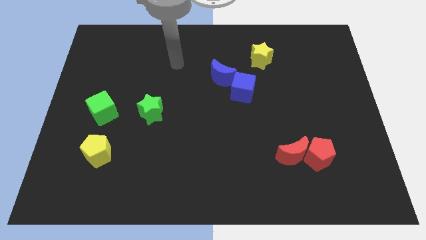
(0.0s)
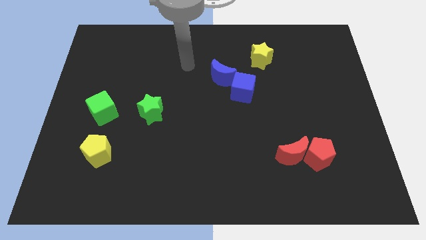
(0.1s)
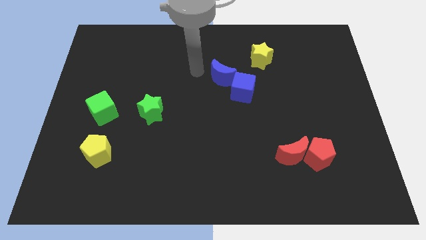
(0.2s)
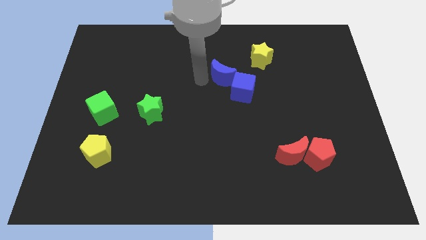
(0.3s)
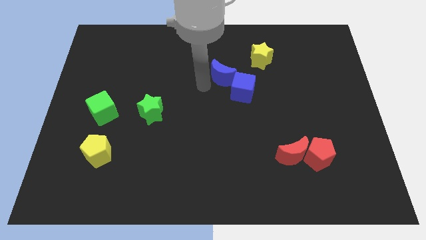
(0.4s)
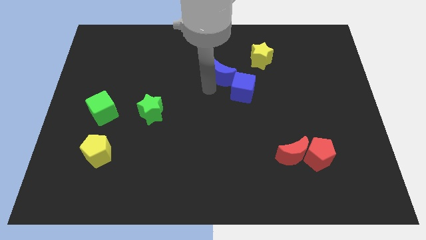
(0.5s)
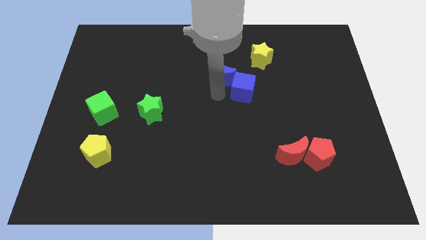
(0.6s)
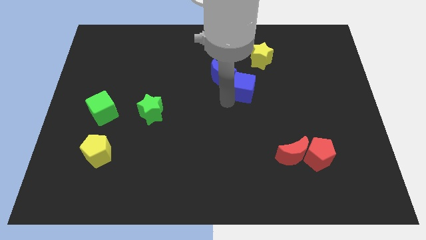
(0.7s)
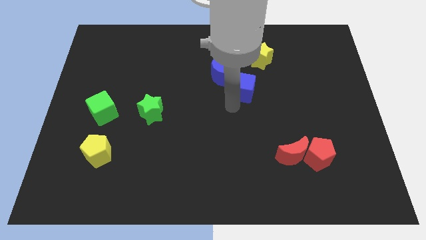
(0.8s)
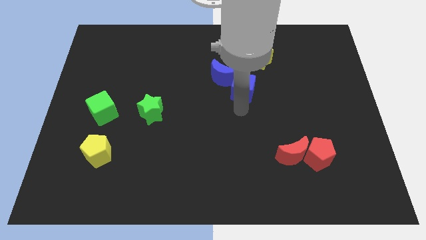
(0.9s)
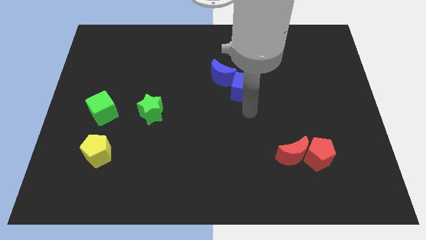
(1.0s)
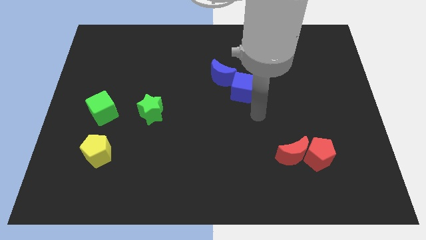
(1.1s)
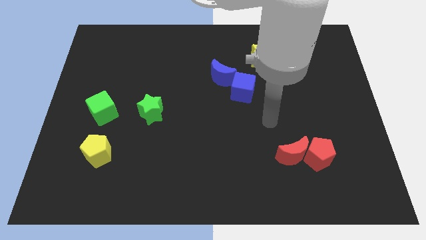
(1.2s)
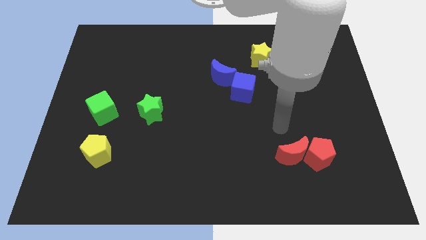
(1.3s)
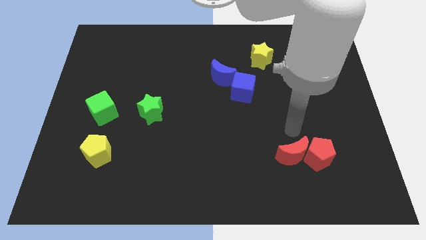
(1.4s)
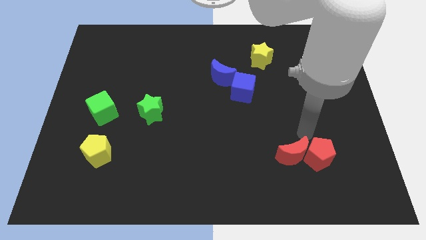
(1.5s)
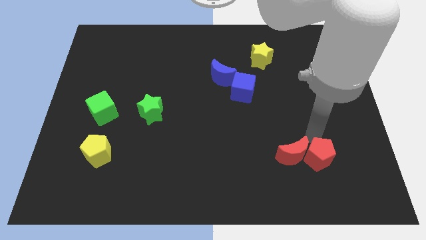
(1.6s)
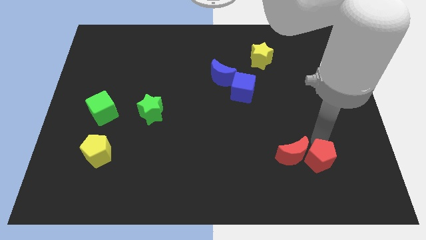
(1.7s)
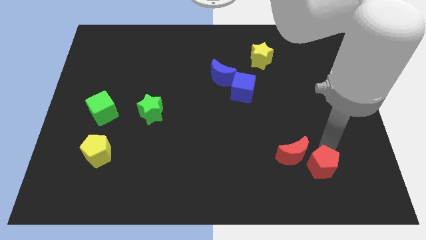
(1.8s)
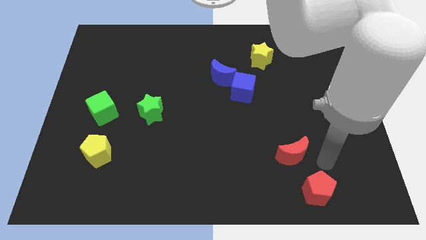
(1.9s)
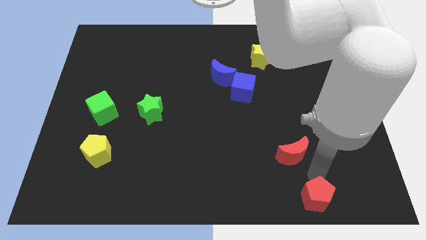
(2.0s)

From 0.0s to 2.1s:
move the red moon away from the red pentagon

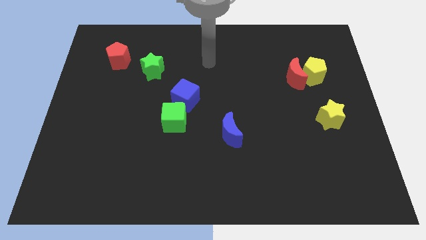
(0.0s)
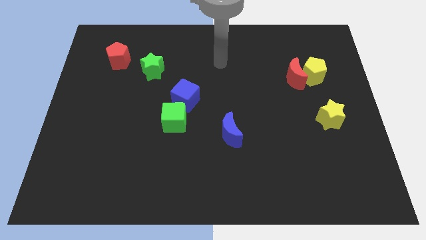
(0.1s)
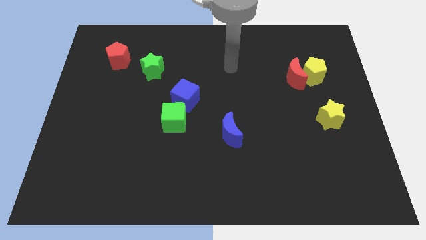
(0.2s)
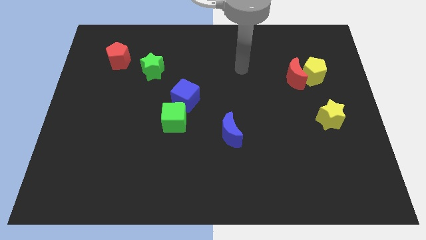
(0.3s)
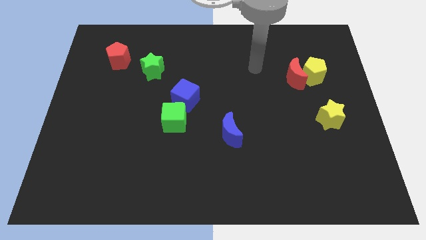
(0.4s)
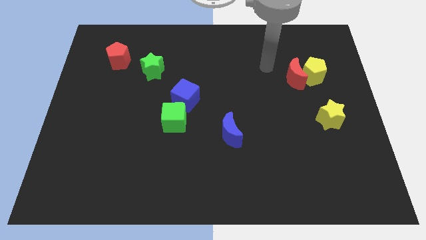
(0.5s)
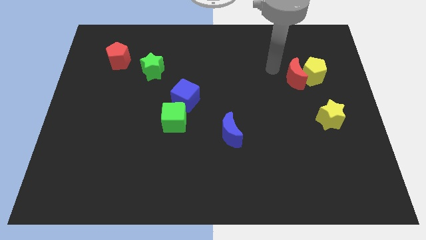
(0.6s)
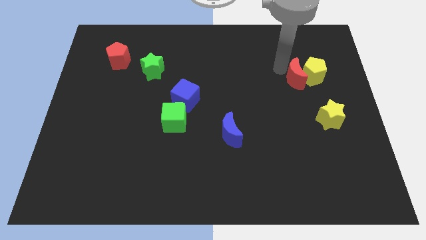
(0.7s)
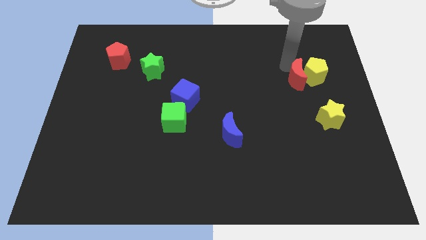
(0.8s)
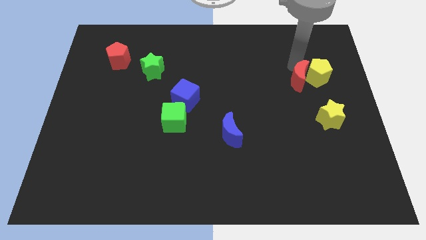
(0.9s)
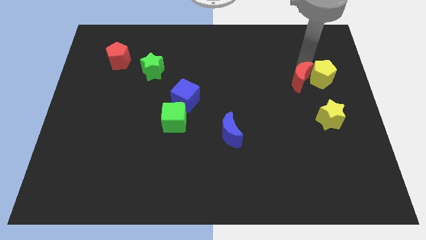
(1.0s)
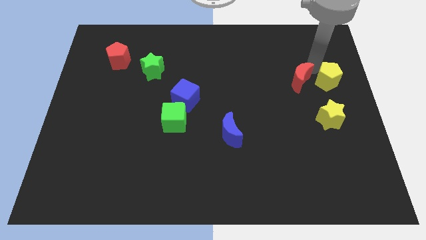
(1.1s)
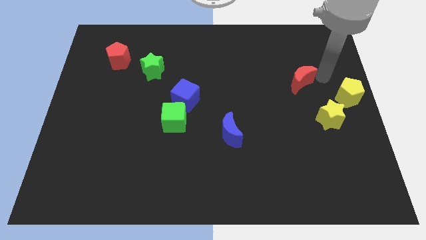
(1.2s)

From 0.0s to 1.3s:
move the red moon away from the yellow pentagon

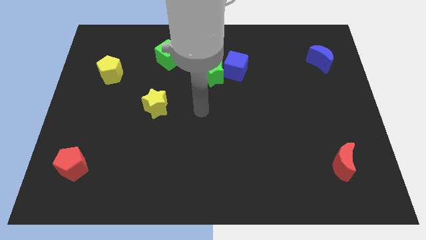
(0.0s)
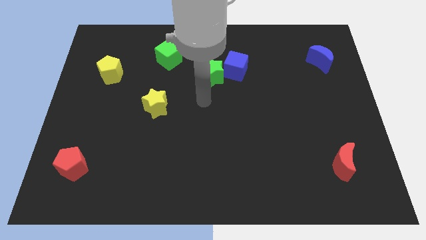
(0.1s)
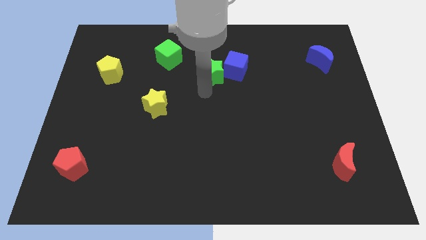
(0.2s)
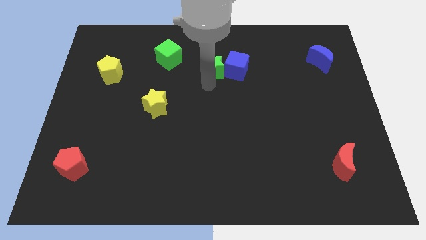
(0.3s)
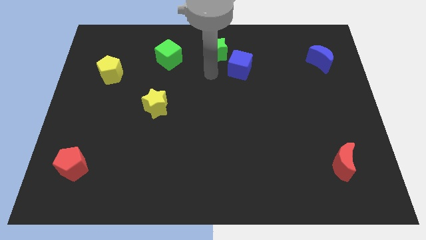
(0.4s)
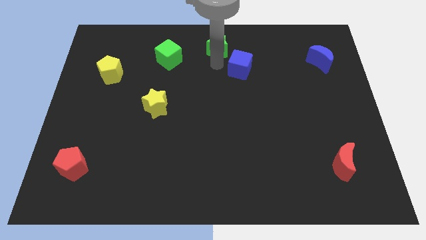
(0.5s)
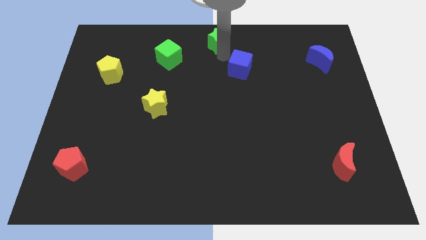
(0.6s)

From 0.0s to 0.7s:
pull the blue cube apart from the green star

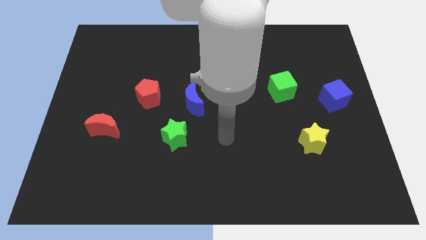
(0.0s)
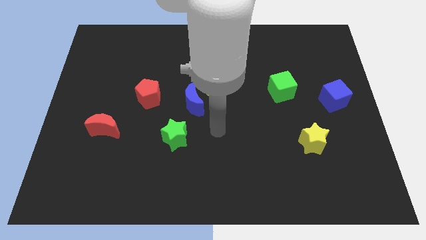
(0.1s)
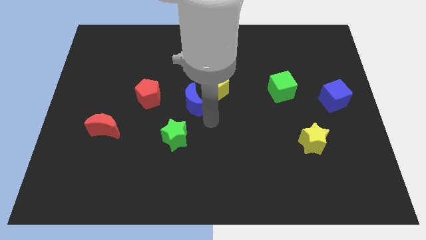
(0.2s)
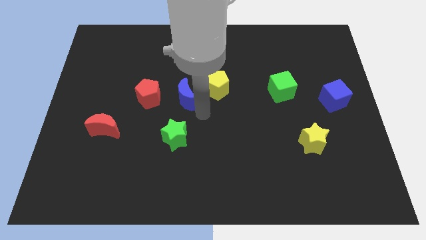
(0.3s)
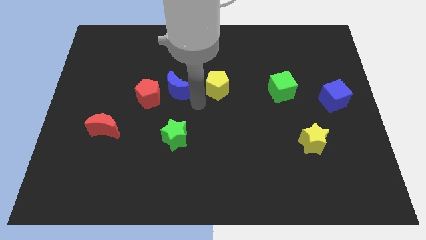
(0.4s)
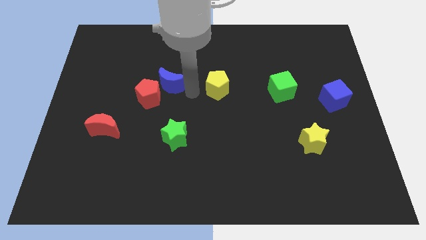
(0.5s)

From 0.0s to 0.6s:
move the yellow pentagon away from the blue moon

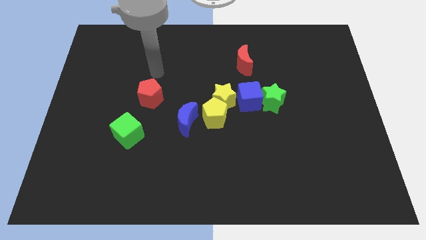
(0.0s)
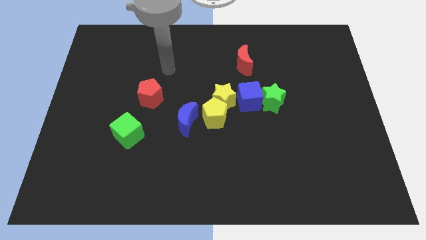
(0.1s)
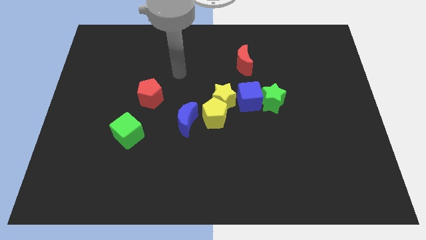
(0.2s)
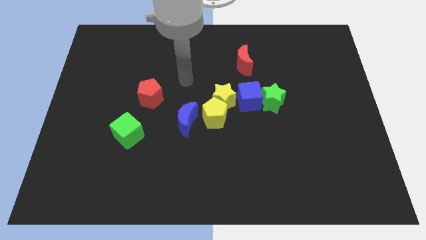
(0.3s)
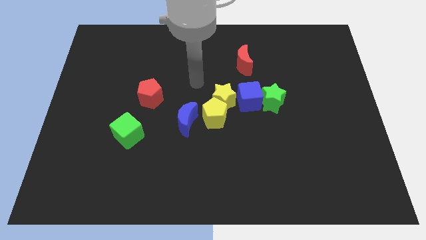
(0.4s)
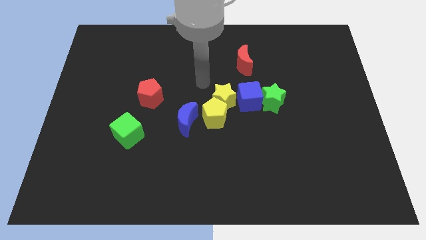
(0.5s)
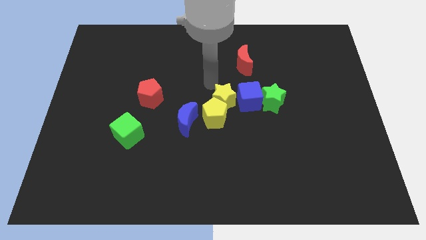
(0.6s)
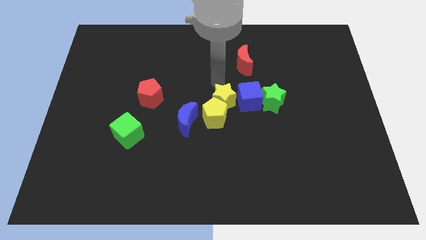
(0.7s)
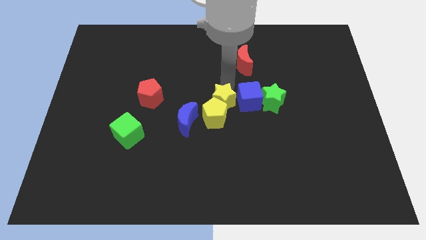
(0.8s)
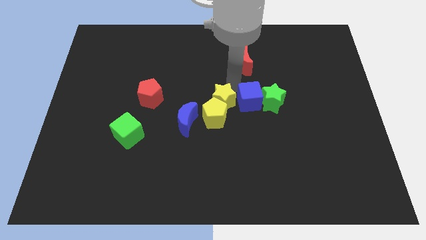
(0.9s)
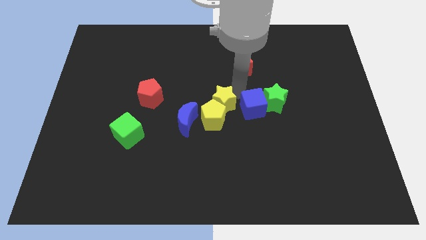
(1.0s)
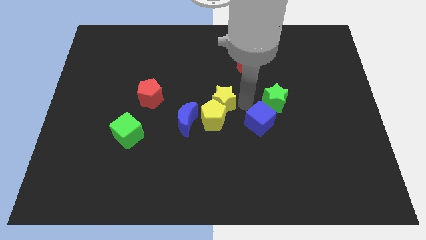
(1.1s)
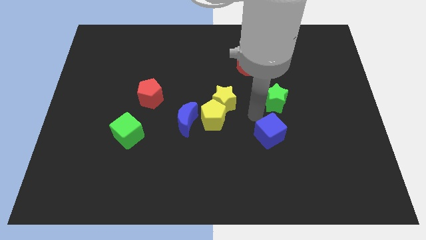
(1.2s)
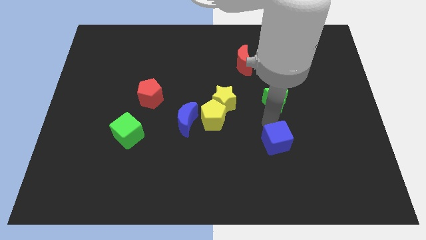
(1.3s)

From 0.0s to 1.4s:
pull the green star apart from the blue cube

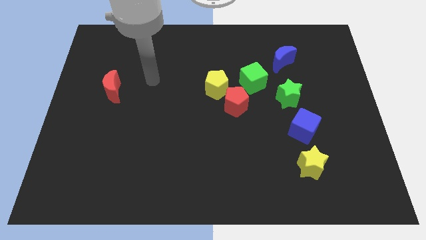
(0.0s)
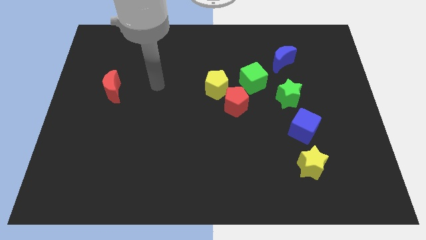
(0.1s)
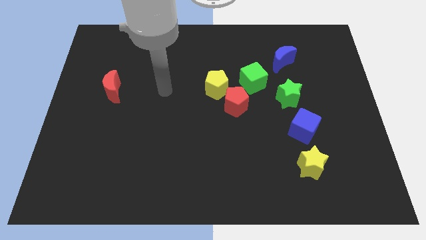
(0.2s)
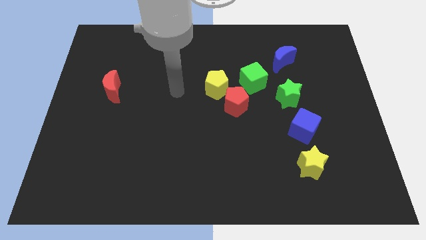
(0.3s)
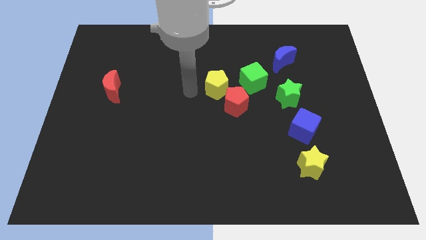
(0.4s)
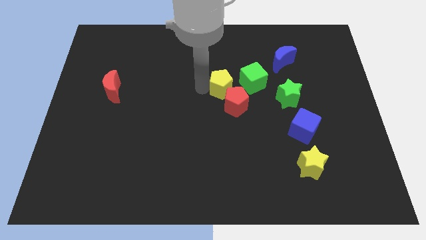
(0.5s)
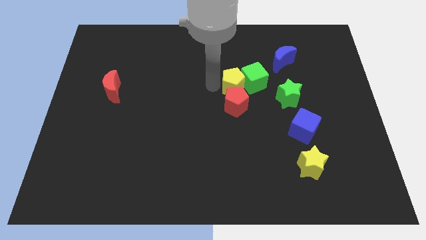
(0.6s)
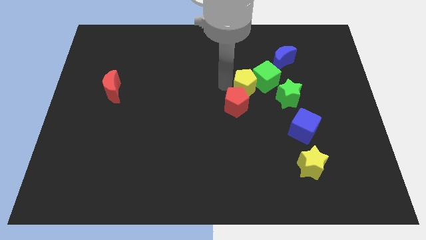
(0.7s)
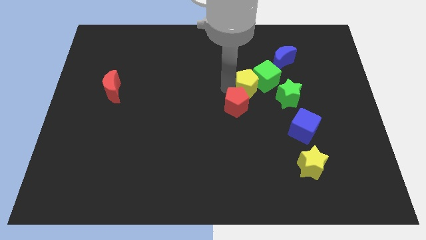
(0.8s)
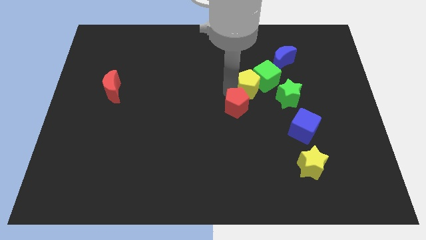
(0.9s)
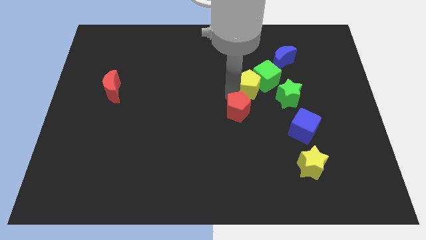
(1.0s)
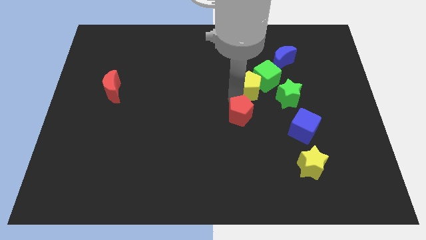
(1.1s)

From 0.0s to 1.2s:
move the red pentagon away from the yellow pentagon and green cube

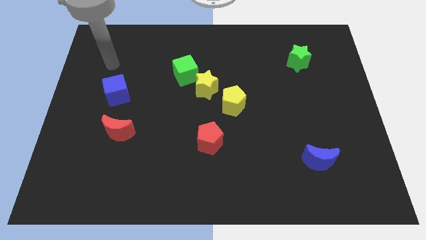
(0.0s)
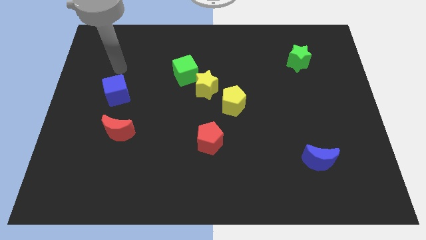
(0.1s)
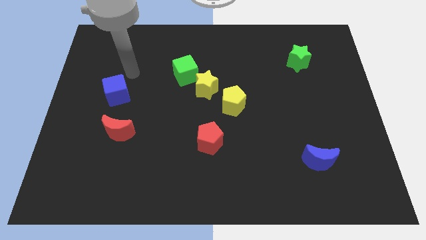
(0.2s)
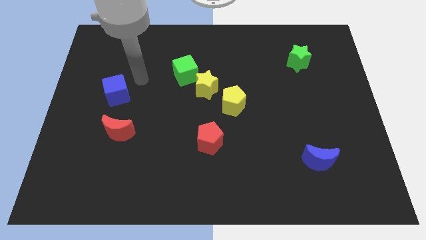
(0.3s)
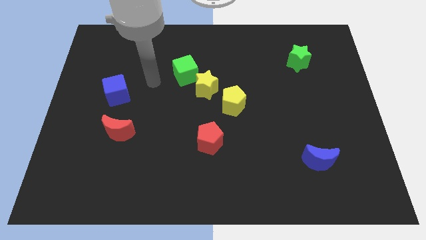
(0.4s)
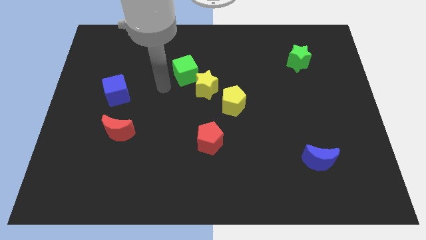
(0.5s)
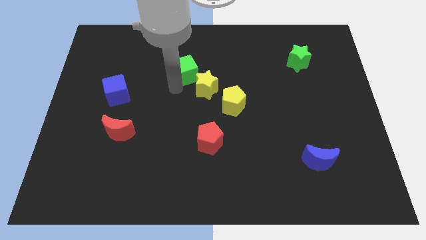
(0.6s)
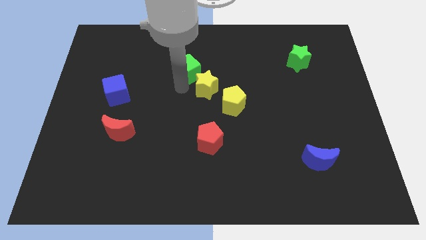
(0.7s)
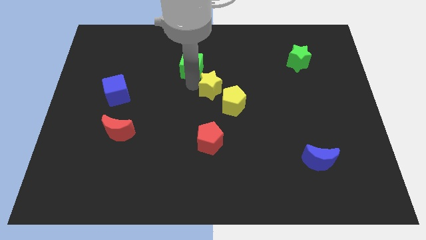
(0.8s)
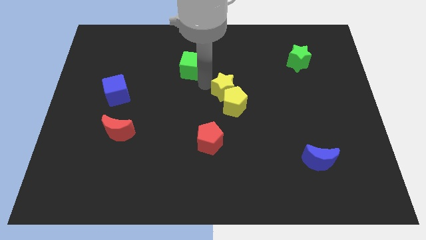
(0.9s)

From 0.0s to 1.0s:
separate the green cube from the yellow star

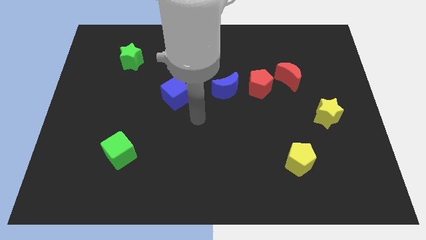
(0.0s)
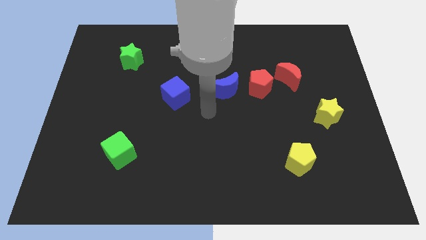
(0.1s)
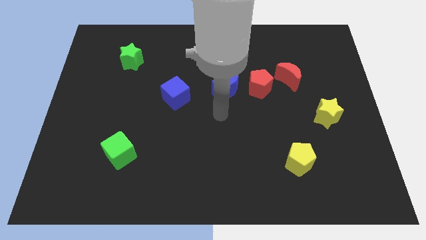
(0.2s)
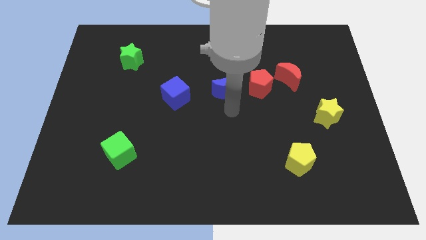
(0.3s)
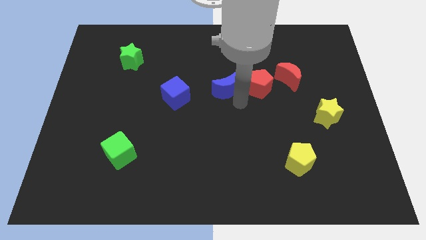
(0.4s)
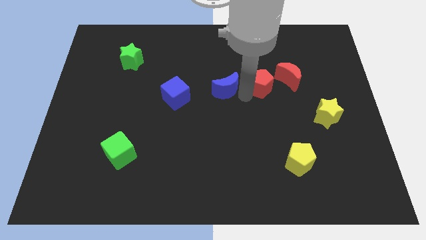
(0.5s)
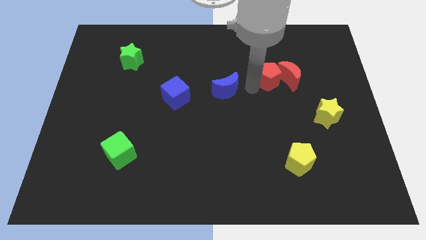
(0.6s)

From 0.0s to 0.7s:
separate the blue moon from the red pentagon

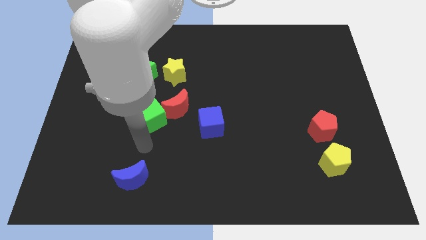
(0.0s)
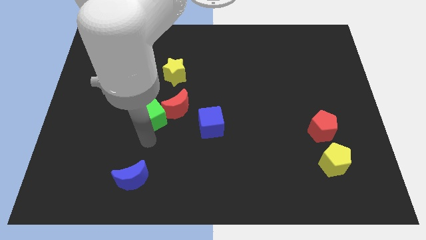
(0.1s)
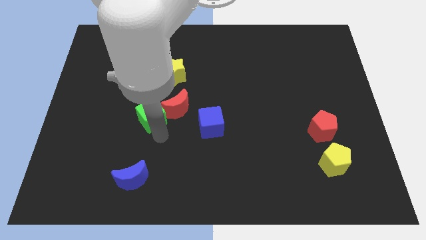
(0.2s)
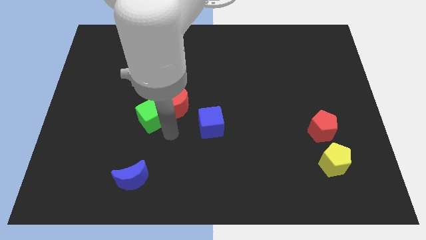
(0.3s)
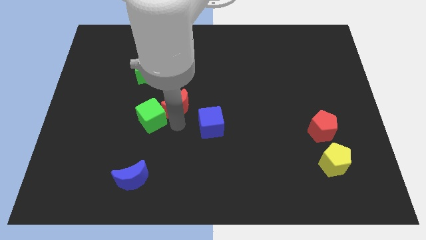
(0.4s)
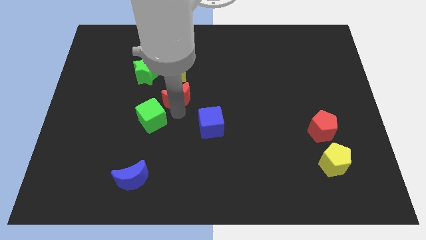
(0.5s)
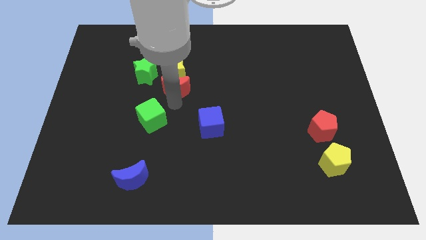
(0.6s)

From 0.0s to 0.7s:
pull the green cube apart from the red moon
